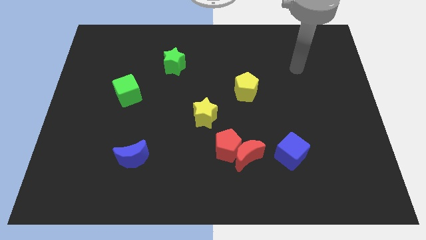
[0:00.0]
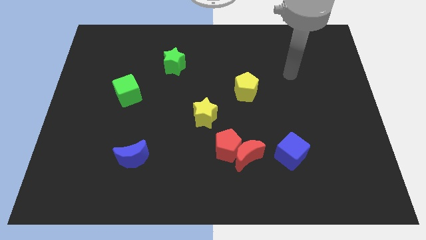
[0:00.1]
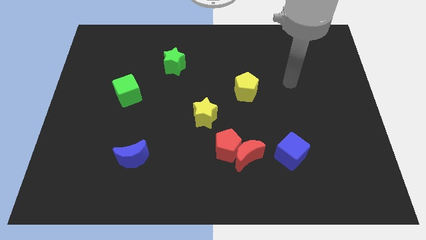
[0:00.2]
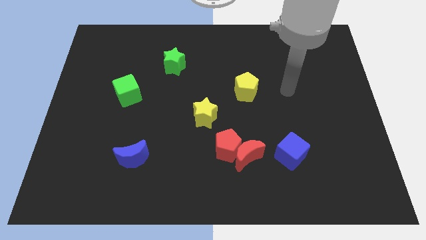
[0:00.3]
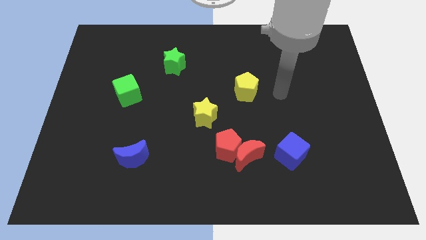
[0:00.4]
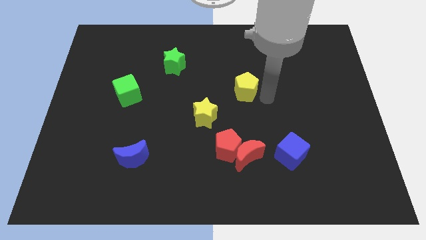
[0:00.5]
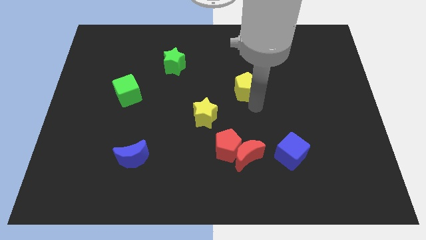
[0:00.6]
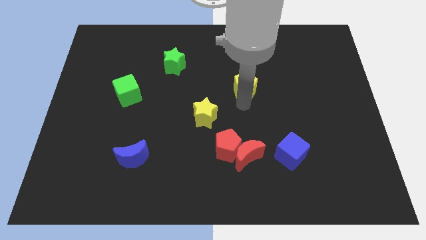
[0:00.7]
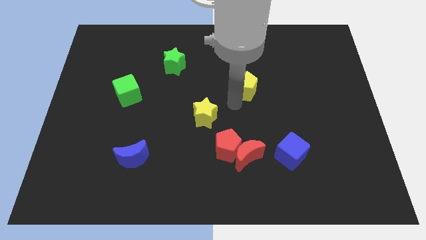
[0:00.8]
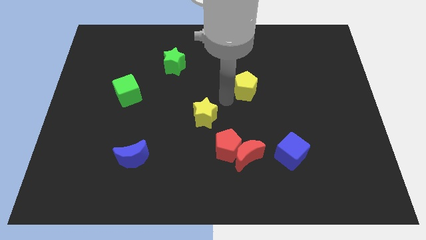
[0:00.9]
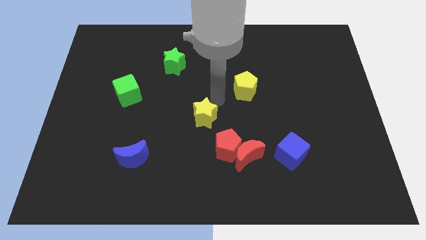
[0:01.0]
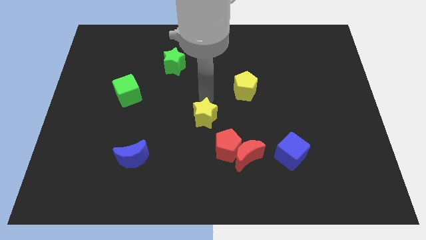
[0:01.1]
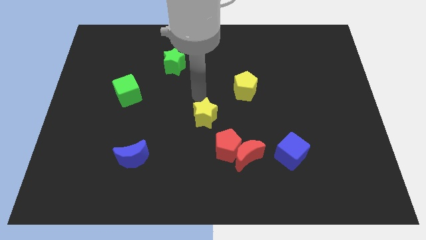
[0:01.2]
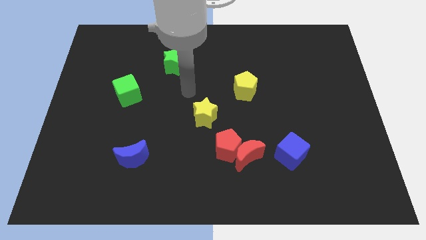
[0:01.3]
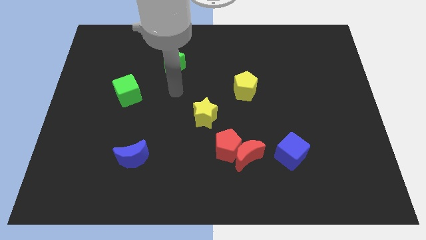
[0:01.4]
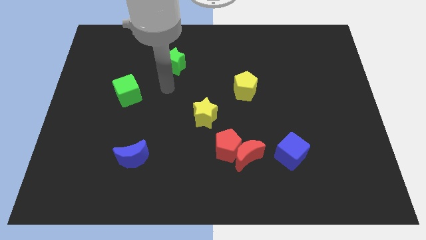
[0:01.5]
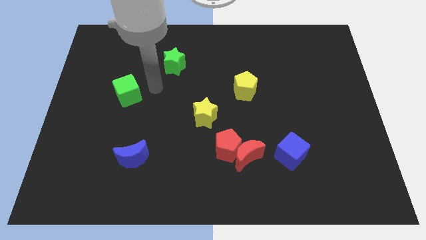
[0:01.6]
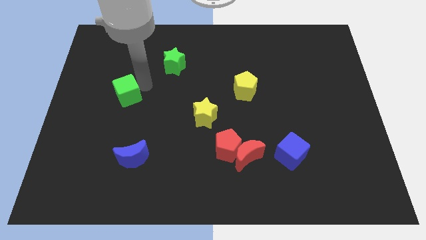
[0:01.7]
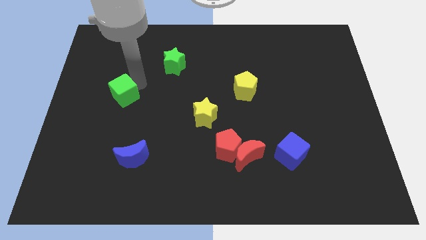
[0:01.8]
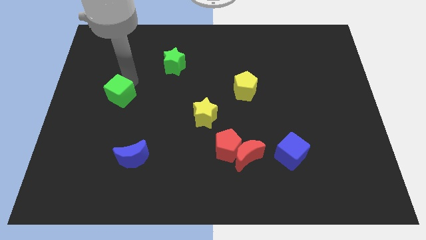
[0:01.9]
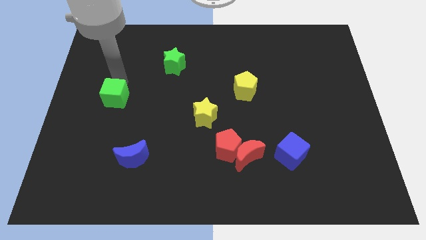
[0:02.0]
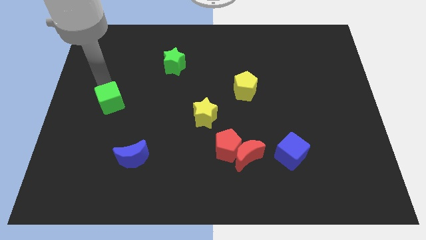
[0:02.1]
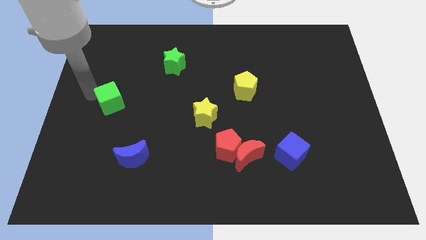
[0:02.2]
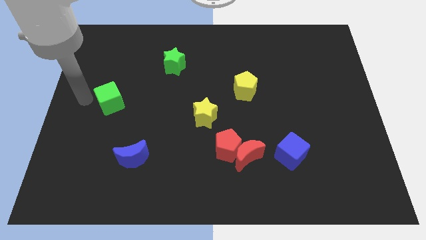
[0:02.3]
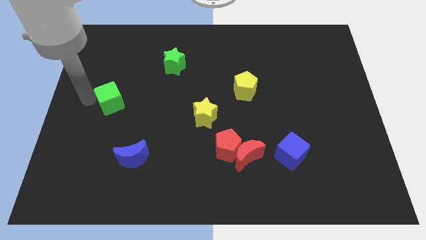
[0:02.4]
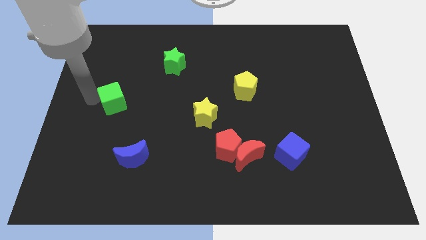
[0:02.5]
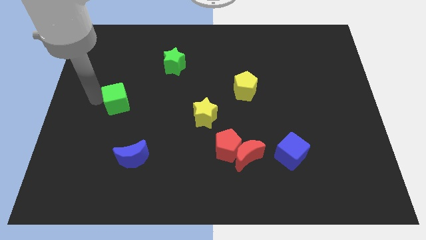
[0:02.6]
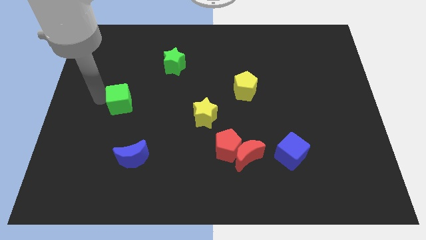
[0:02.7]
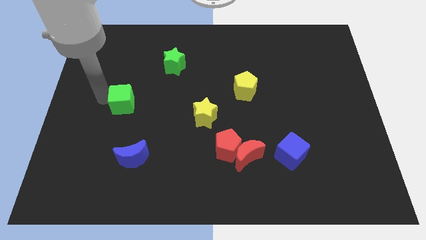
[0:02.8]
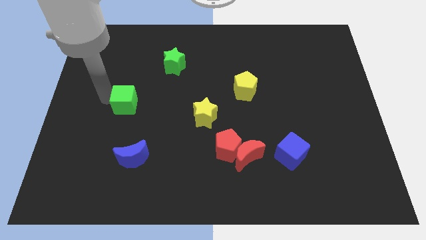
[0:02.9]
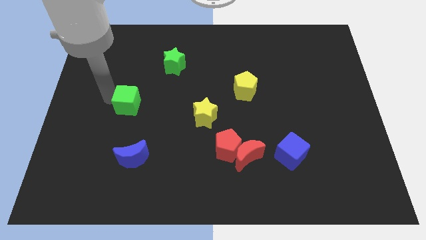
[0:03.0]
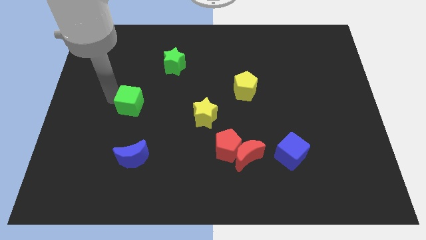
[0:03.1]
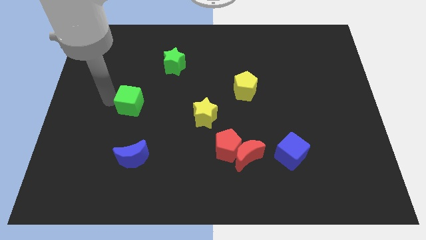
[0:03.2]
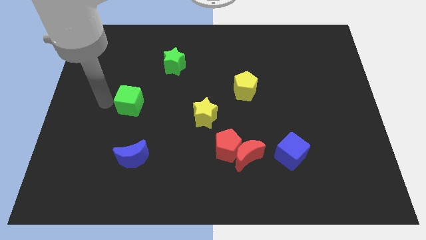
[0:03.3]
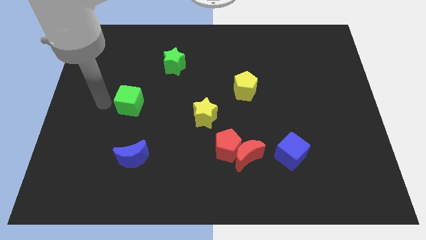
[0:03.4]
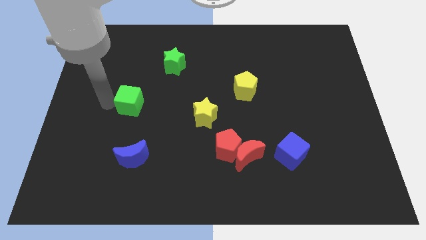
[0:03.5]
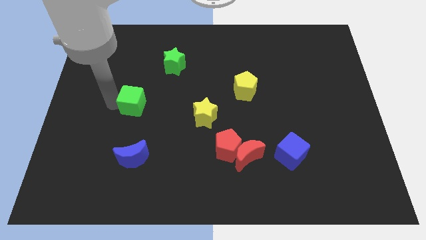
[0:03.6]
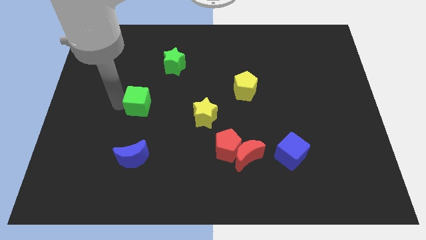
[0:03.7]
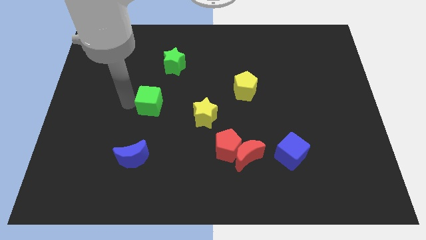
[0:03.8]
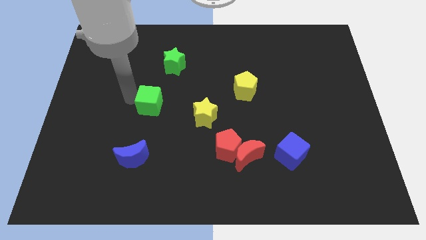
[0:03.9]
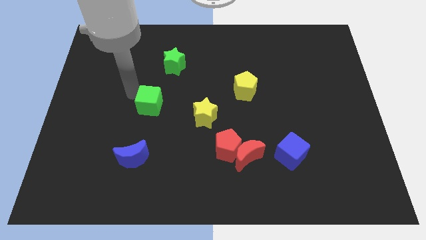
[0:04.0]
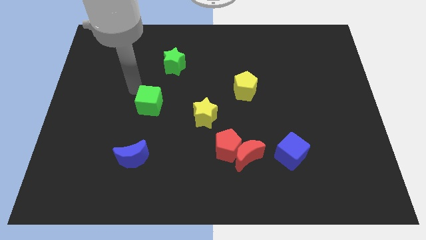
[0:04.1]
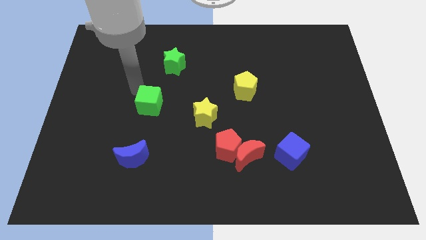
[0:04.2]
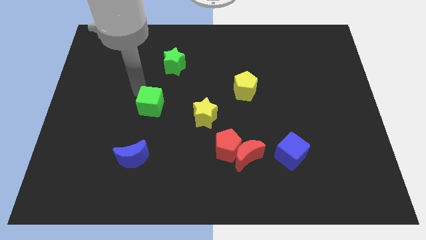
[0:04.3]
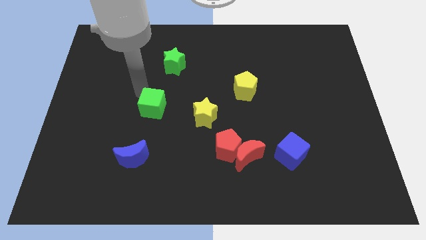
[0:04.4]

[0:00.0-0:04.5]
move the green cube somewhat down and then to the right

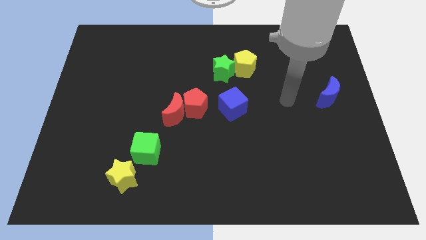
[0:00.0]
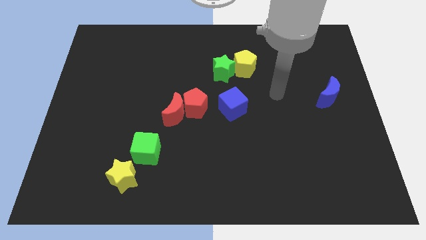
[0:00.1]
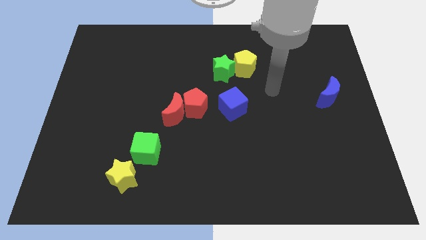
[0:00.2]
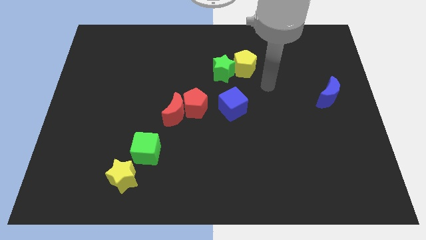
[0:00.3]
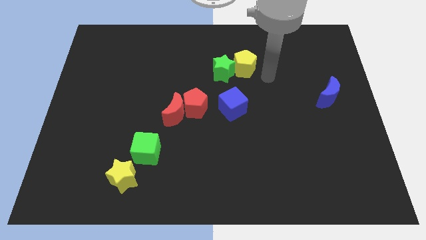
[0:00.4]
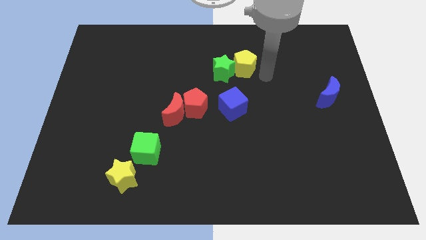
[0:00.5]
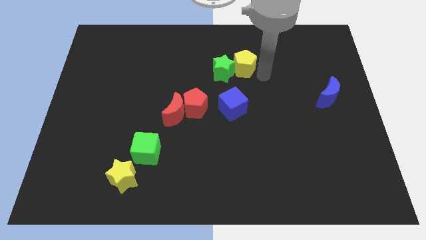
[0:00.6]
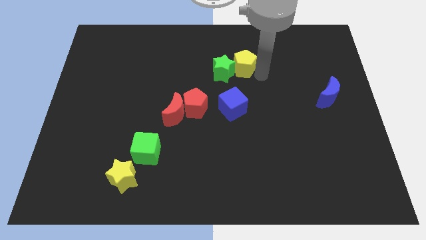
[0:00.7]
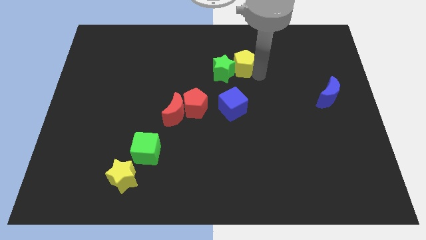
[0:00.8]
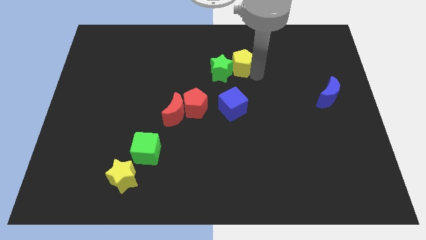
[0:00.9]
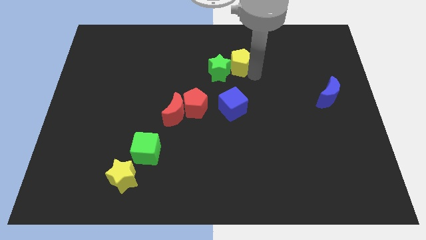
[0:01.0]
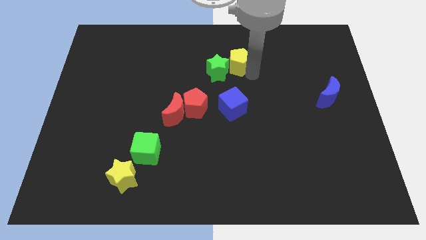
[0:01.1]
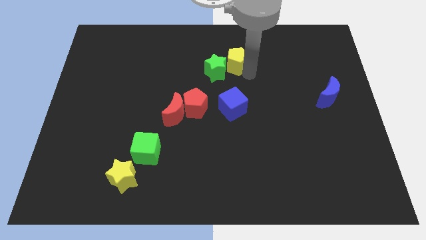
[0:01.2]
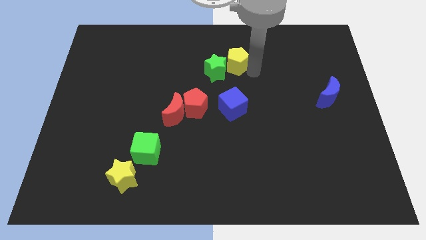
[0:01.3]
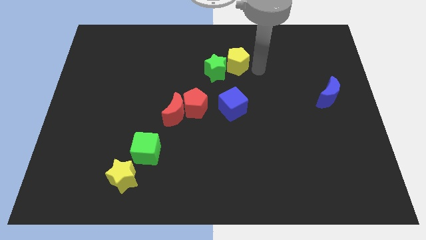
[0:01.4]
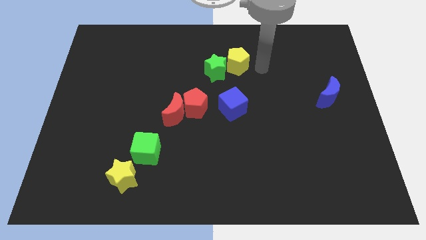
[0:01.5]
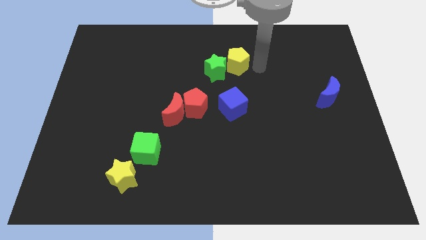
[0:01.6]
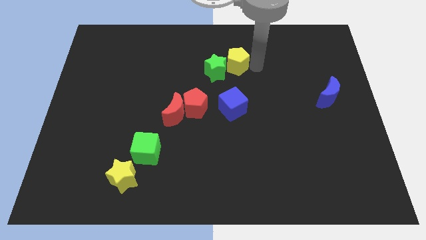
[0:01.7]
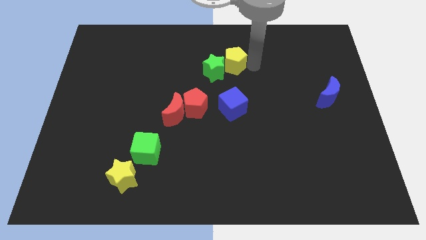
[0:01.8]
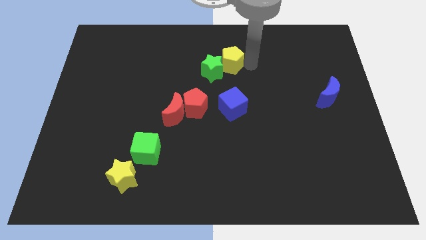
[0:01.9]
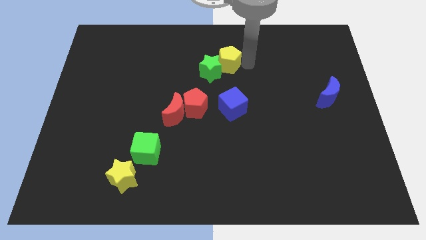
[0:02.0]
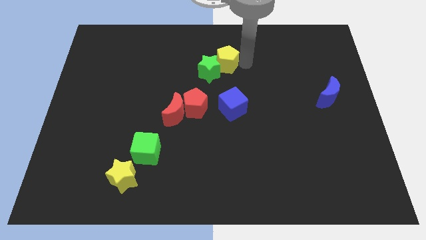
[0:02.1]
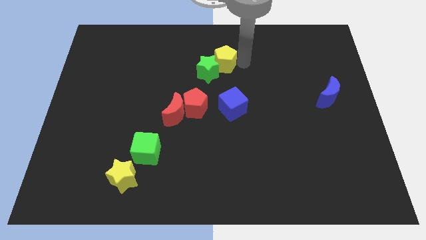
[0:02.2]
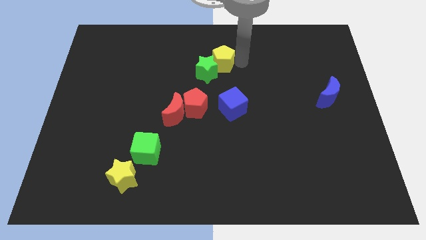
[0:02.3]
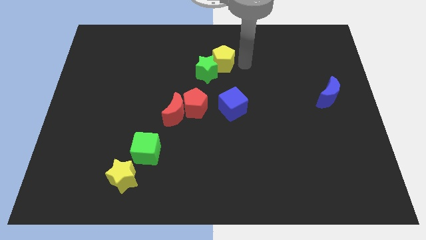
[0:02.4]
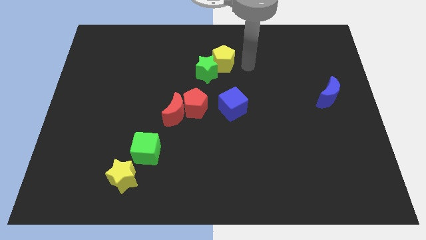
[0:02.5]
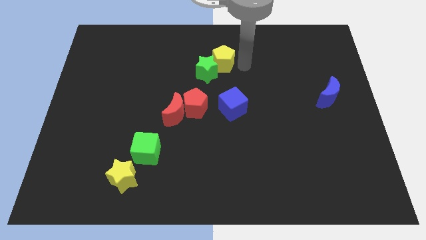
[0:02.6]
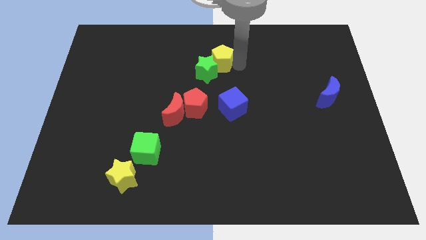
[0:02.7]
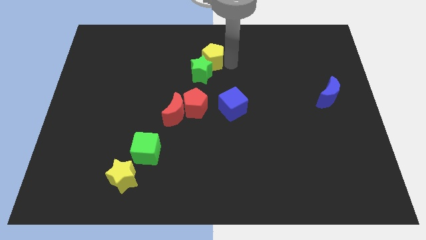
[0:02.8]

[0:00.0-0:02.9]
move the yellow pentagon to the left somewhat

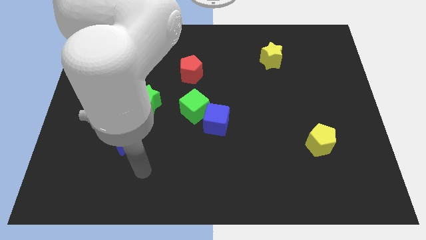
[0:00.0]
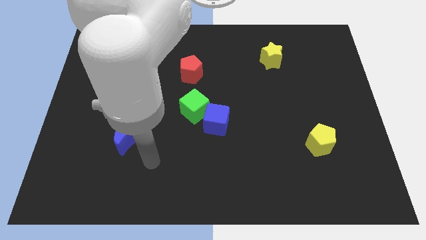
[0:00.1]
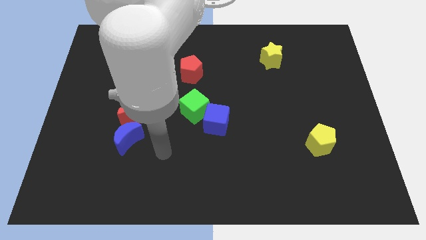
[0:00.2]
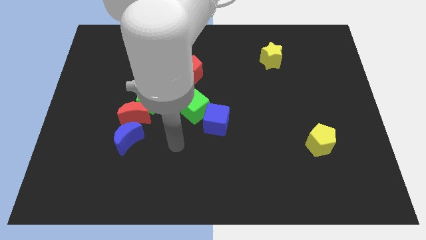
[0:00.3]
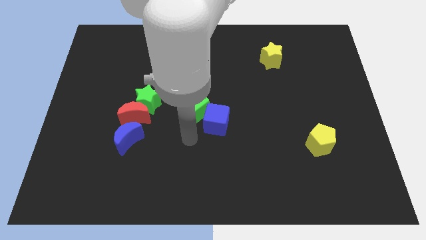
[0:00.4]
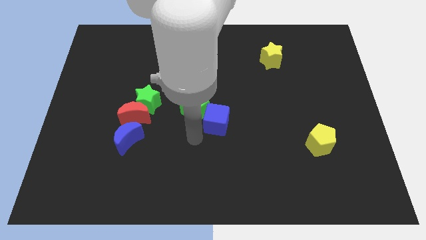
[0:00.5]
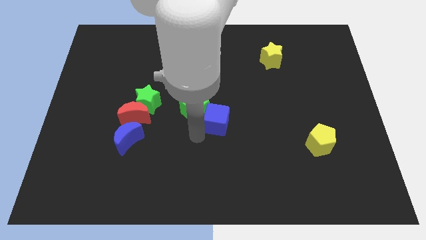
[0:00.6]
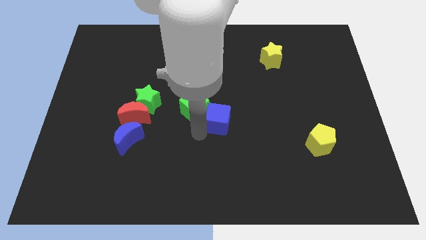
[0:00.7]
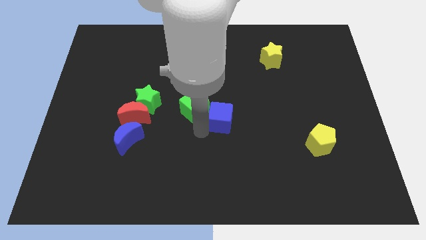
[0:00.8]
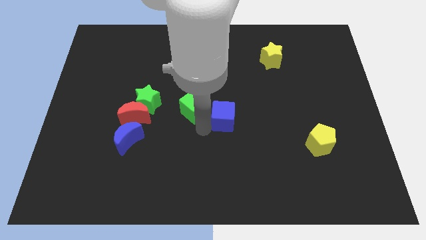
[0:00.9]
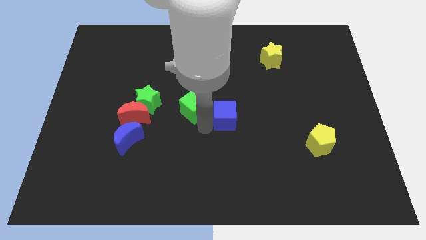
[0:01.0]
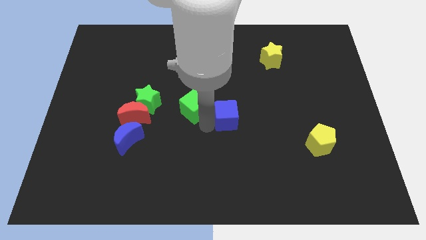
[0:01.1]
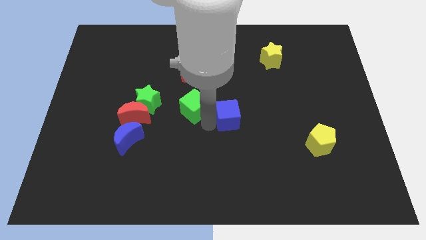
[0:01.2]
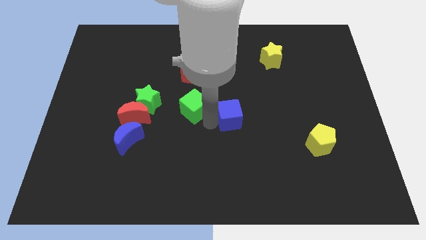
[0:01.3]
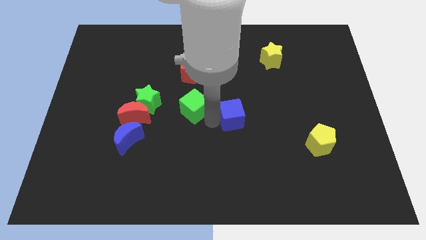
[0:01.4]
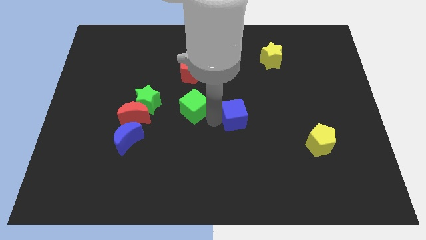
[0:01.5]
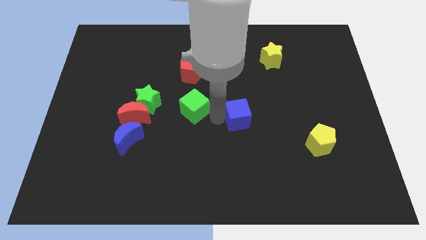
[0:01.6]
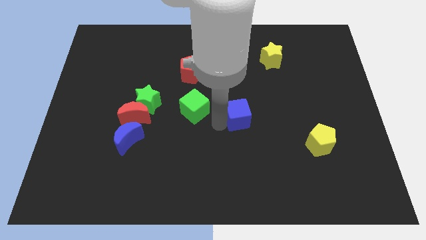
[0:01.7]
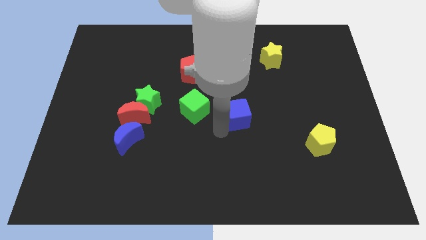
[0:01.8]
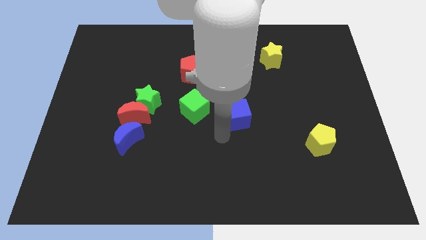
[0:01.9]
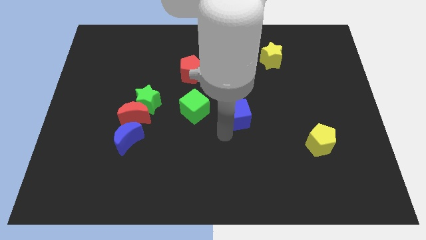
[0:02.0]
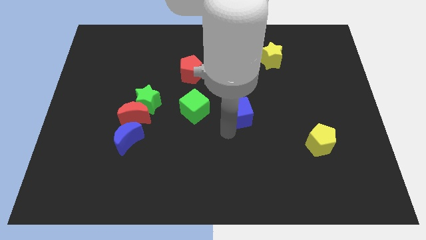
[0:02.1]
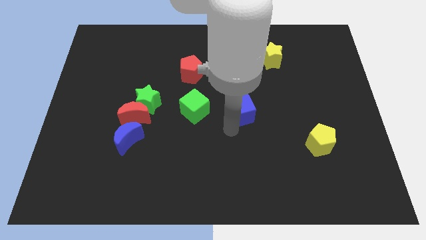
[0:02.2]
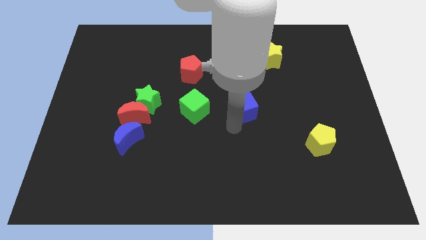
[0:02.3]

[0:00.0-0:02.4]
slightly move the blue cube diagonally upwards and to the right
